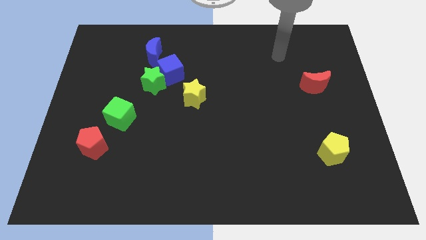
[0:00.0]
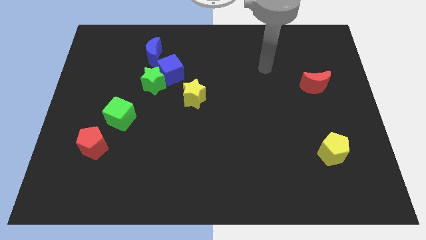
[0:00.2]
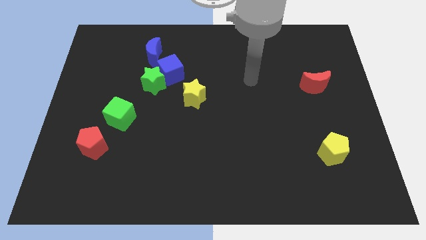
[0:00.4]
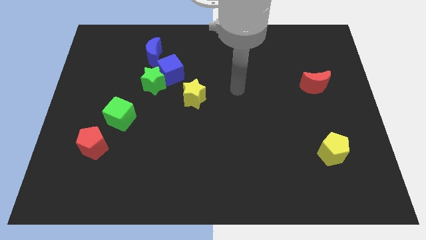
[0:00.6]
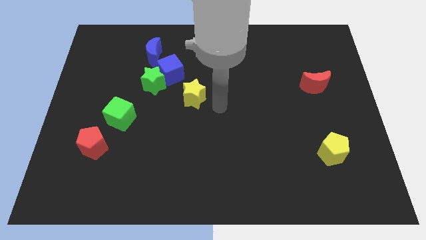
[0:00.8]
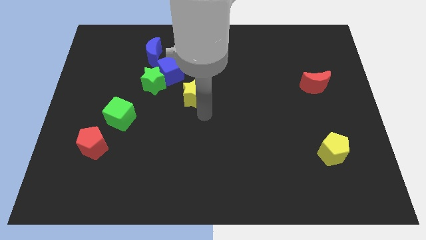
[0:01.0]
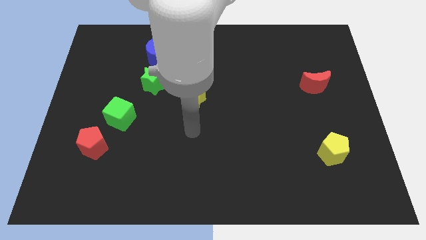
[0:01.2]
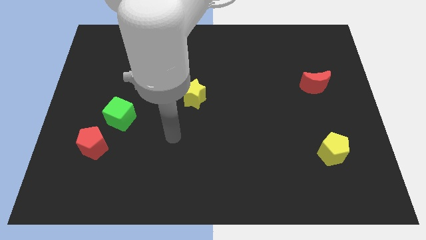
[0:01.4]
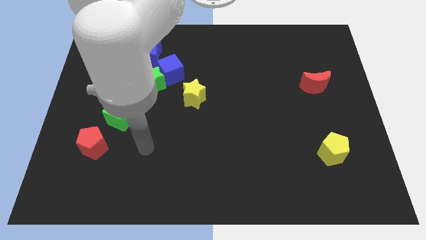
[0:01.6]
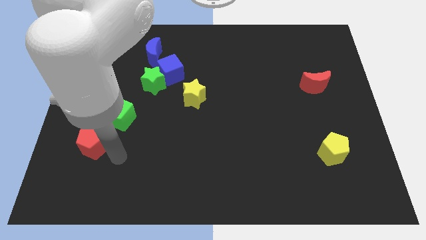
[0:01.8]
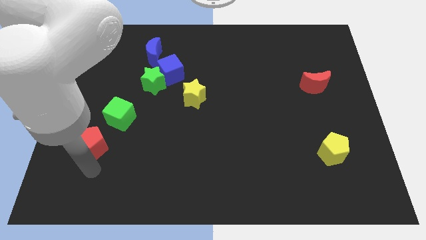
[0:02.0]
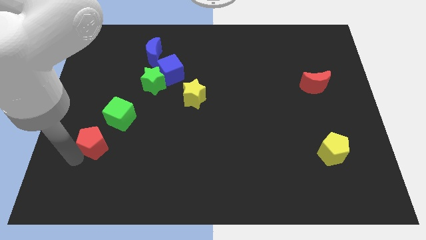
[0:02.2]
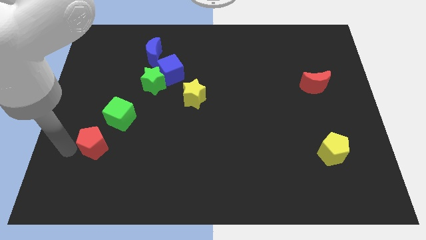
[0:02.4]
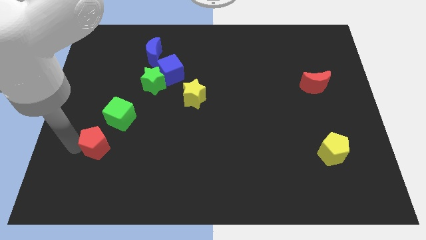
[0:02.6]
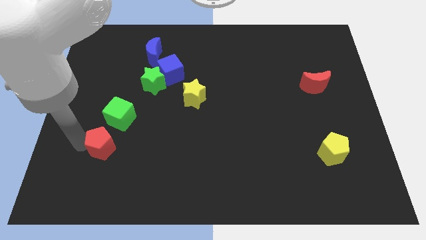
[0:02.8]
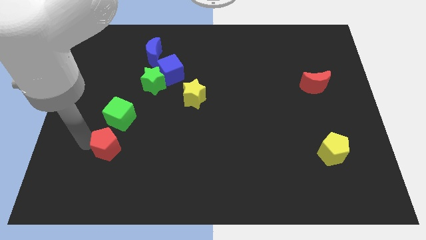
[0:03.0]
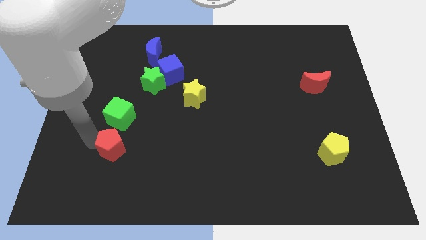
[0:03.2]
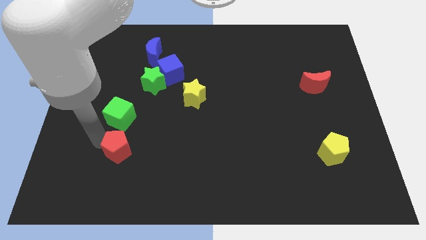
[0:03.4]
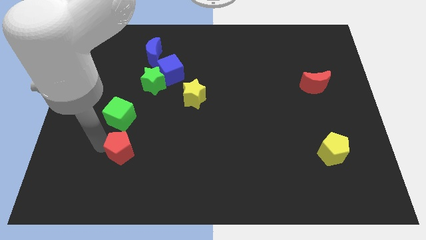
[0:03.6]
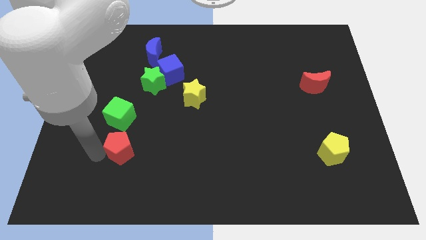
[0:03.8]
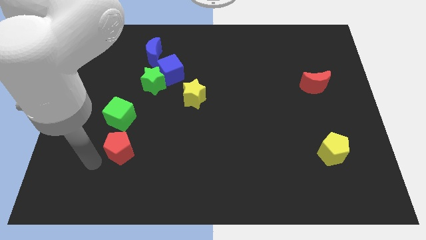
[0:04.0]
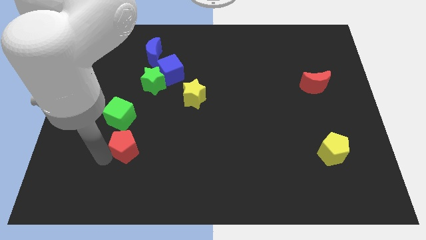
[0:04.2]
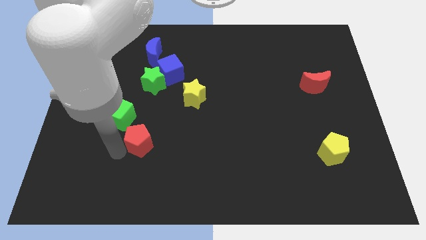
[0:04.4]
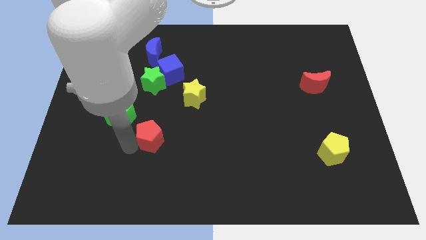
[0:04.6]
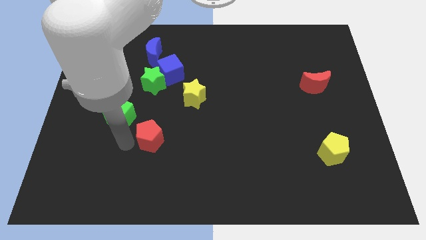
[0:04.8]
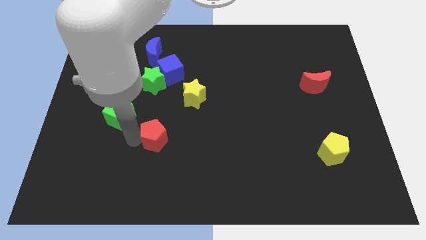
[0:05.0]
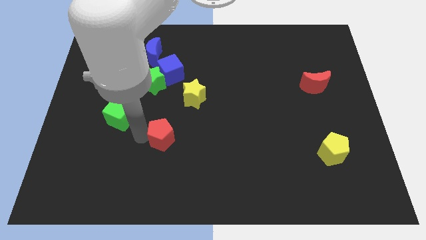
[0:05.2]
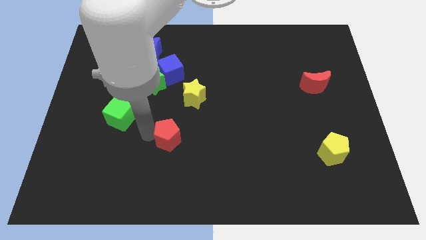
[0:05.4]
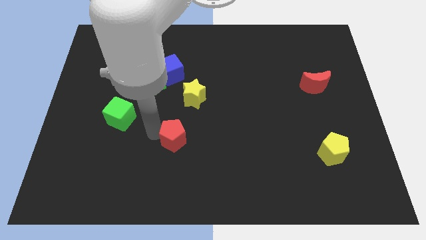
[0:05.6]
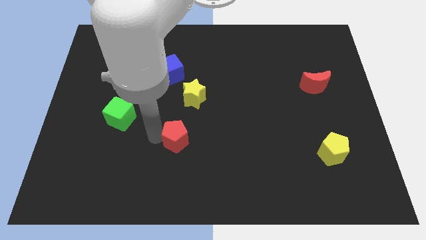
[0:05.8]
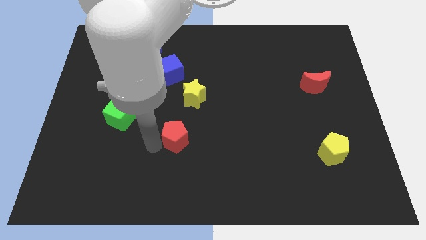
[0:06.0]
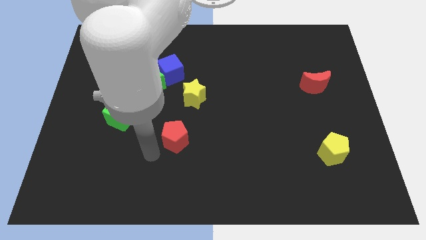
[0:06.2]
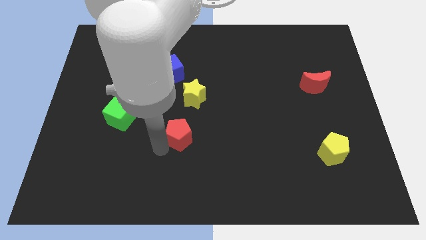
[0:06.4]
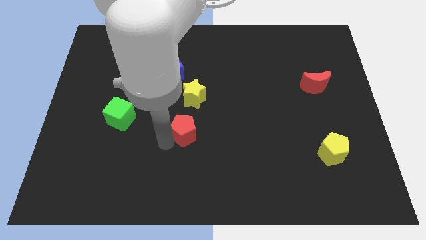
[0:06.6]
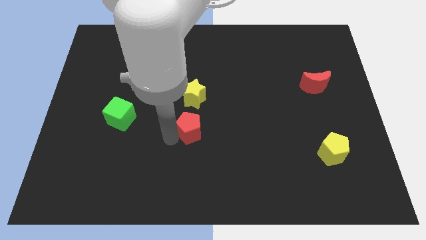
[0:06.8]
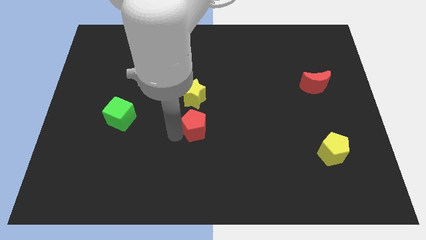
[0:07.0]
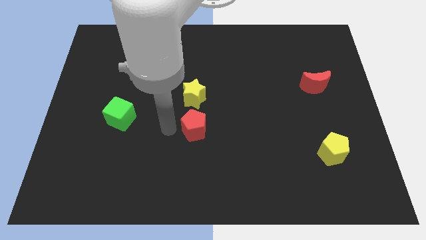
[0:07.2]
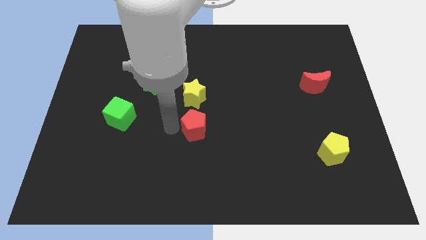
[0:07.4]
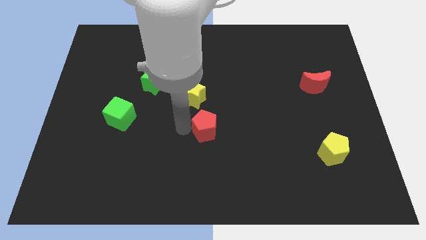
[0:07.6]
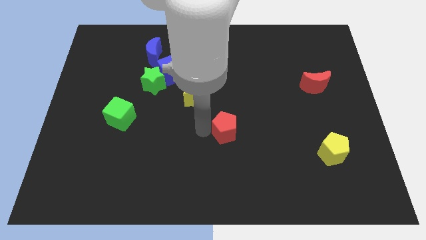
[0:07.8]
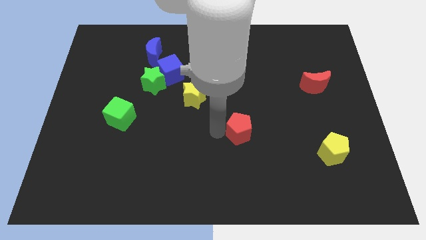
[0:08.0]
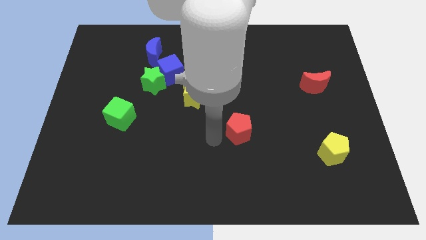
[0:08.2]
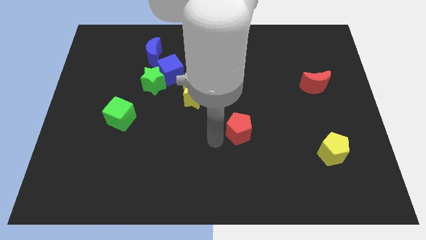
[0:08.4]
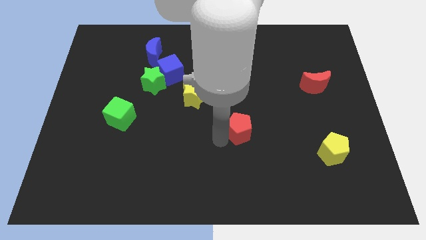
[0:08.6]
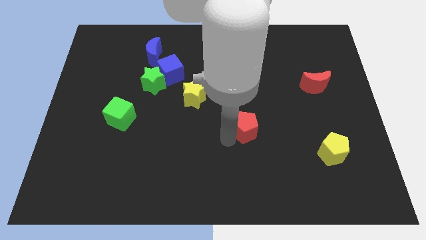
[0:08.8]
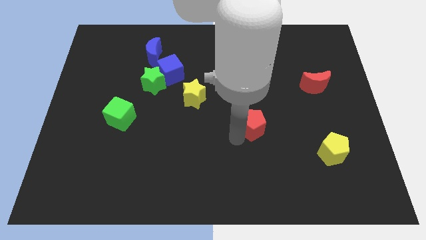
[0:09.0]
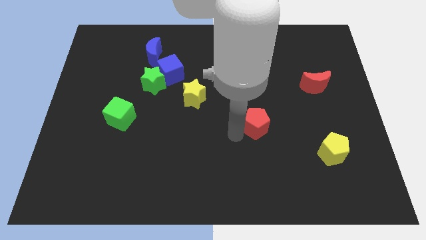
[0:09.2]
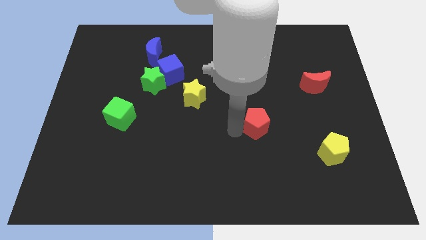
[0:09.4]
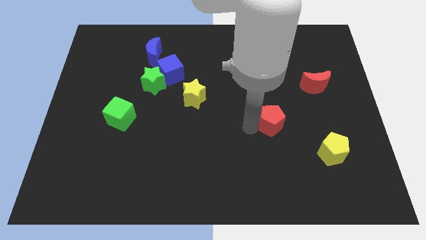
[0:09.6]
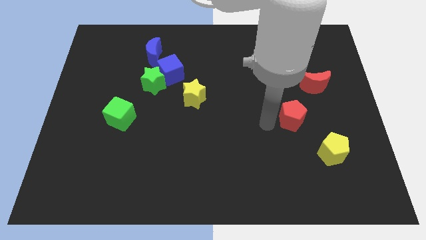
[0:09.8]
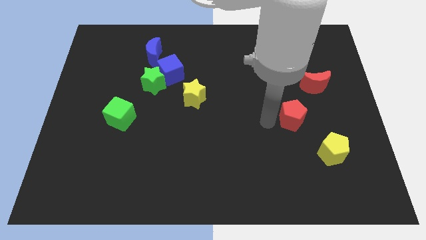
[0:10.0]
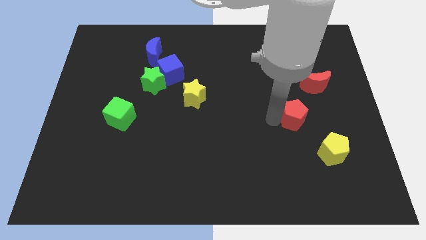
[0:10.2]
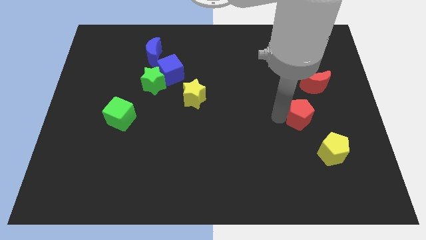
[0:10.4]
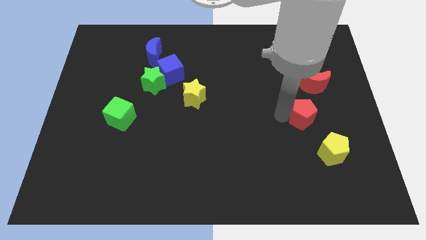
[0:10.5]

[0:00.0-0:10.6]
put the red pentagon above the yellow pentagon

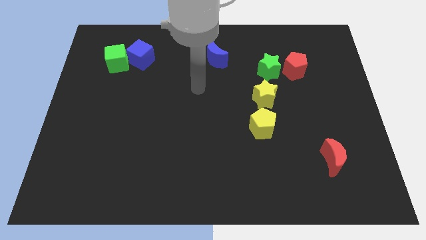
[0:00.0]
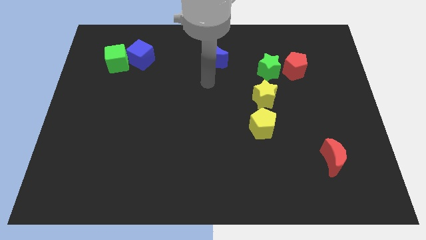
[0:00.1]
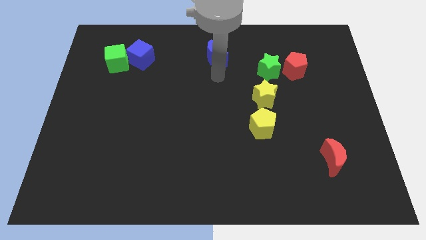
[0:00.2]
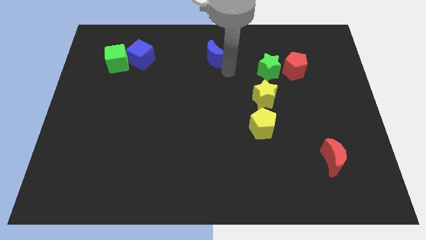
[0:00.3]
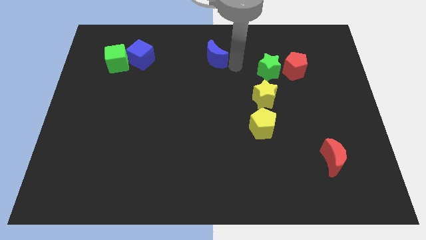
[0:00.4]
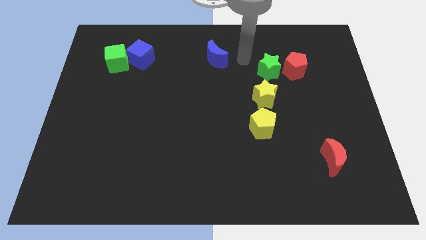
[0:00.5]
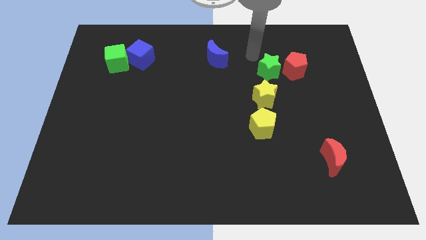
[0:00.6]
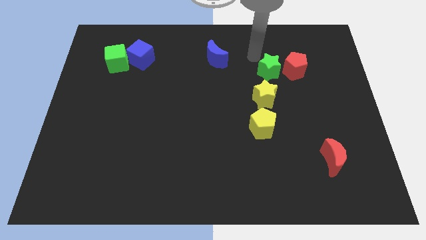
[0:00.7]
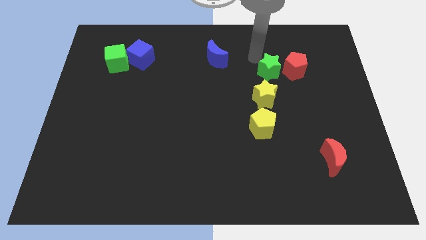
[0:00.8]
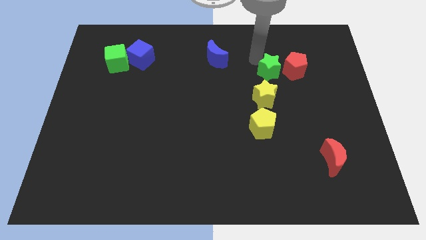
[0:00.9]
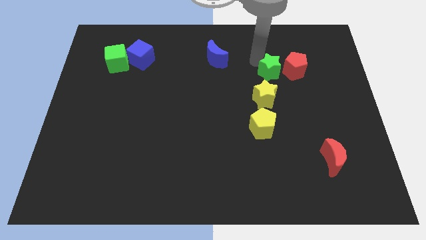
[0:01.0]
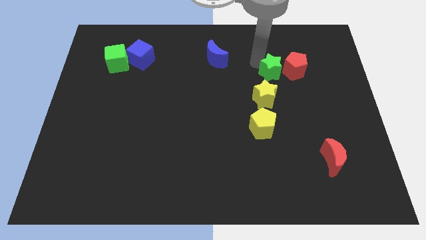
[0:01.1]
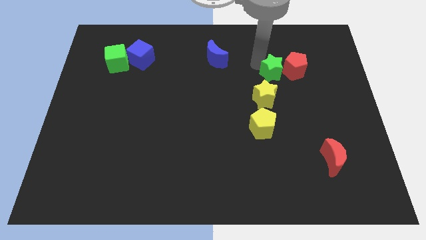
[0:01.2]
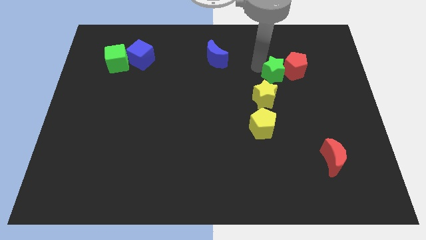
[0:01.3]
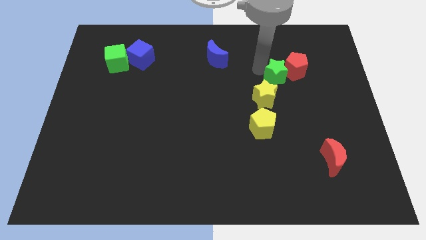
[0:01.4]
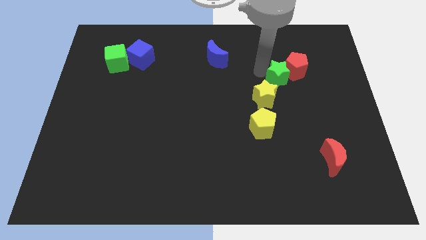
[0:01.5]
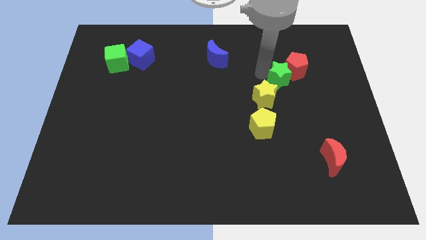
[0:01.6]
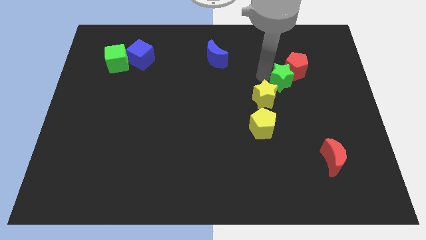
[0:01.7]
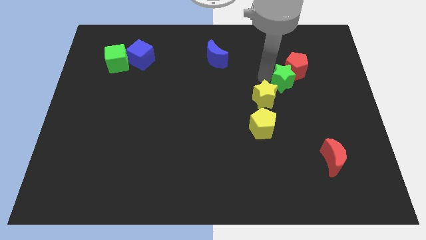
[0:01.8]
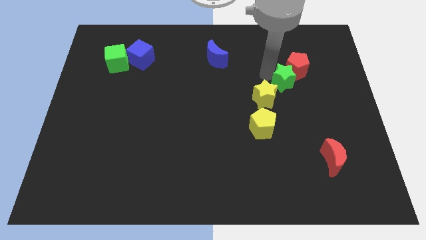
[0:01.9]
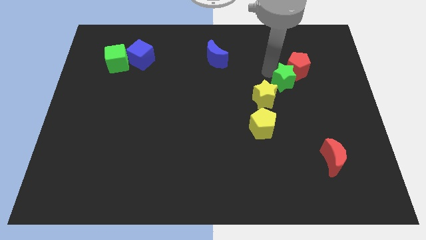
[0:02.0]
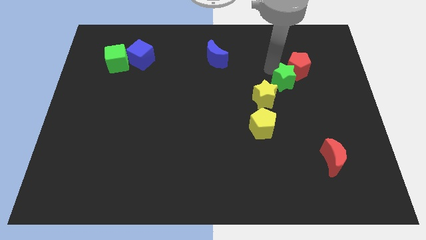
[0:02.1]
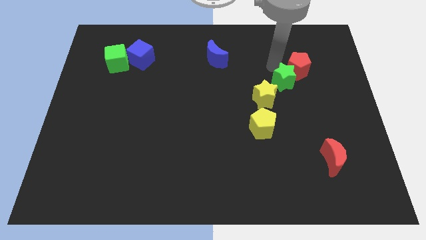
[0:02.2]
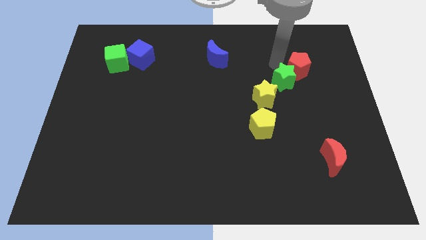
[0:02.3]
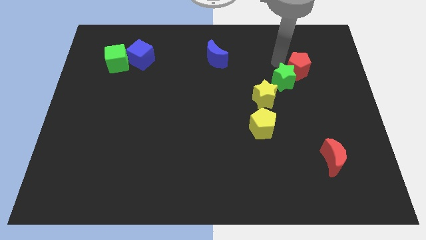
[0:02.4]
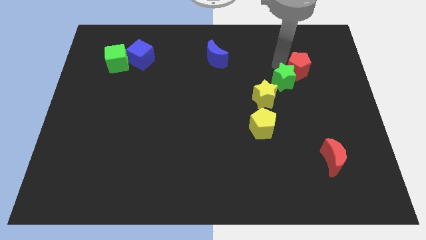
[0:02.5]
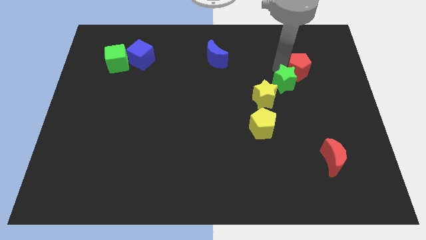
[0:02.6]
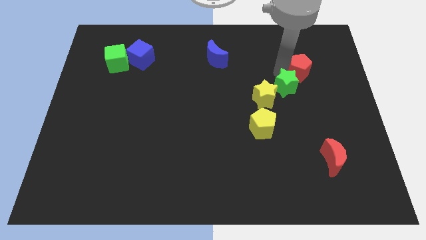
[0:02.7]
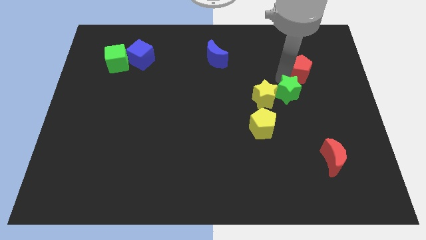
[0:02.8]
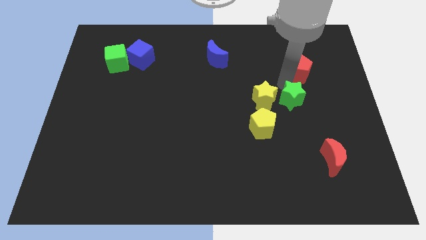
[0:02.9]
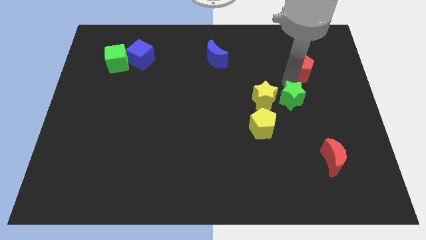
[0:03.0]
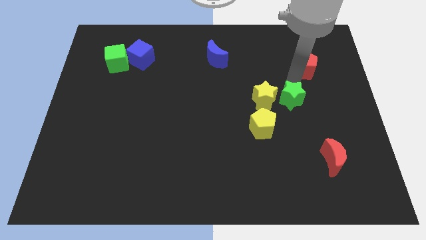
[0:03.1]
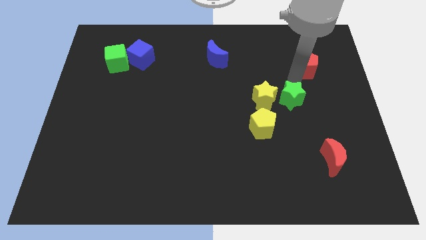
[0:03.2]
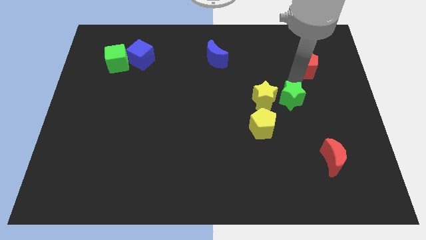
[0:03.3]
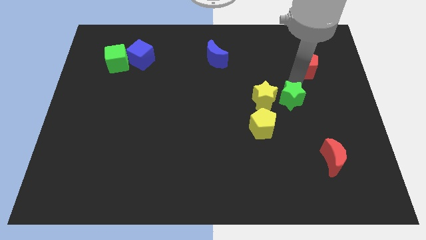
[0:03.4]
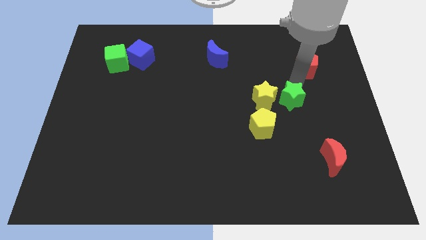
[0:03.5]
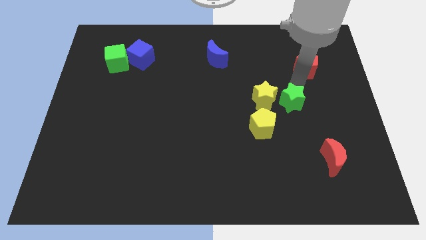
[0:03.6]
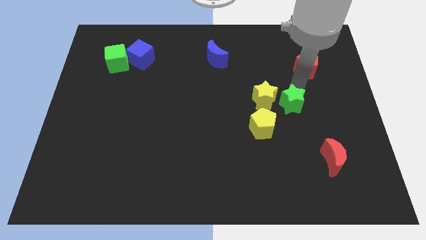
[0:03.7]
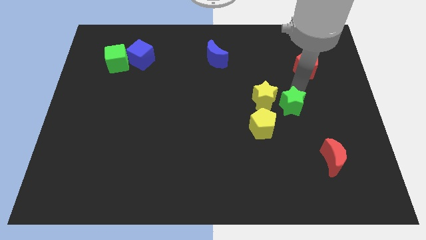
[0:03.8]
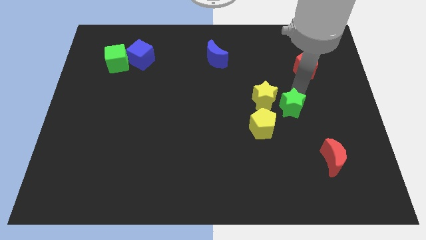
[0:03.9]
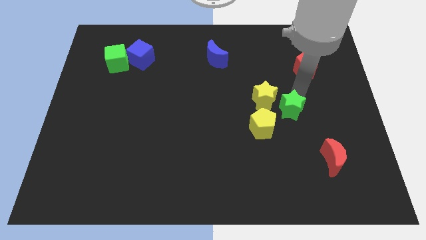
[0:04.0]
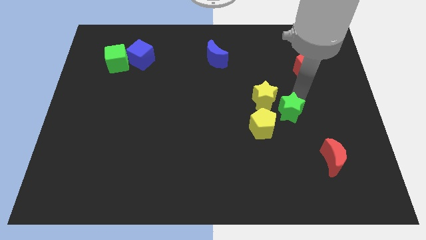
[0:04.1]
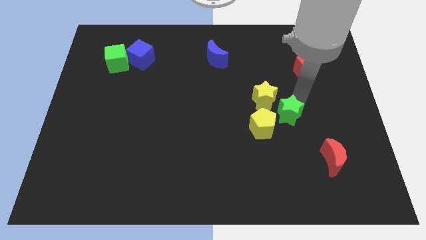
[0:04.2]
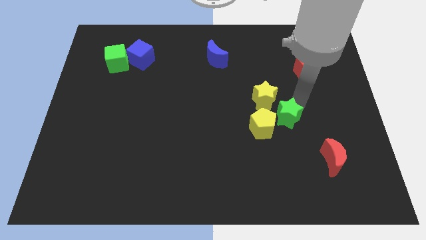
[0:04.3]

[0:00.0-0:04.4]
push the green star to the bottom side of the yellow star
